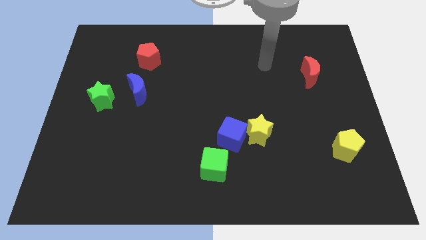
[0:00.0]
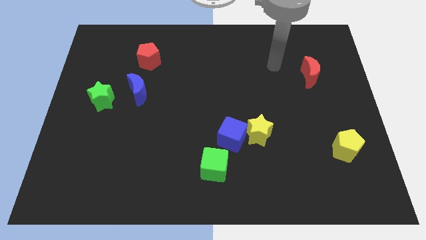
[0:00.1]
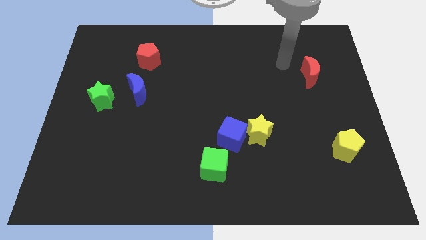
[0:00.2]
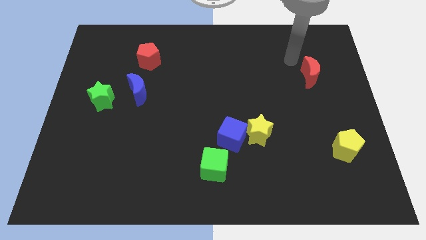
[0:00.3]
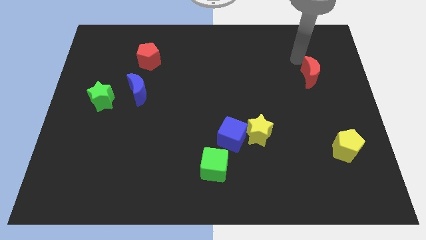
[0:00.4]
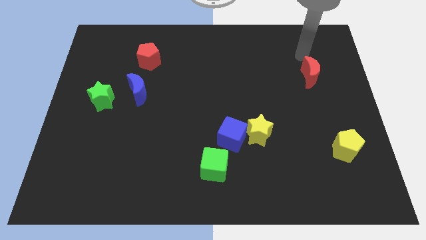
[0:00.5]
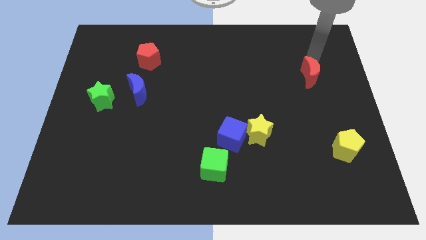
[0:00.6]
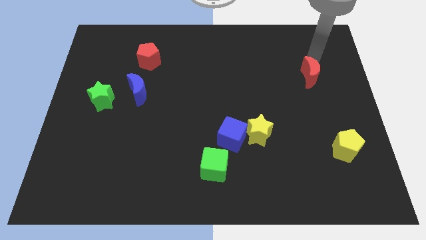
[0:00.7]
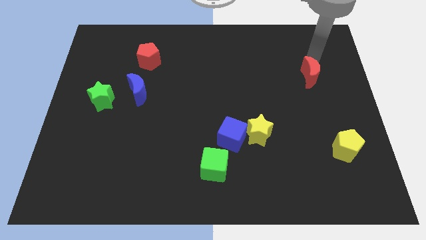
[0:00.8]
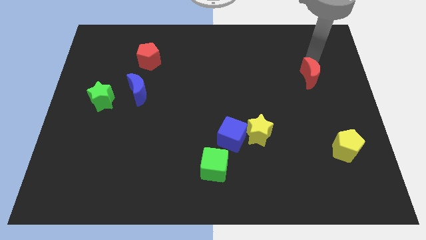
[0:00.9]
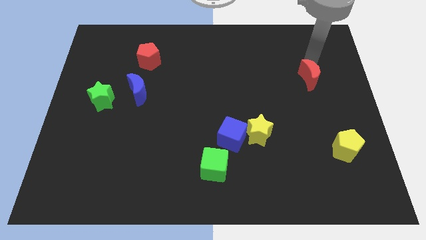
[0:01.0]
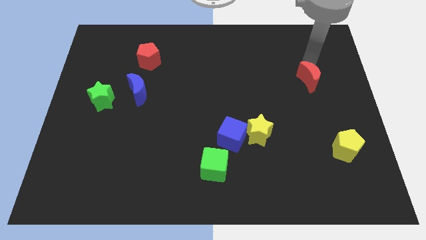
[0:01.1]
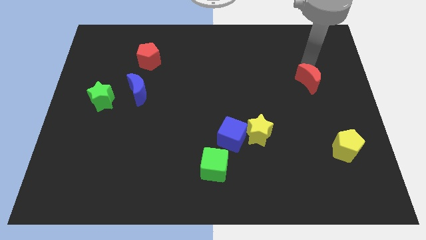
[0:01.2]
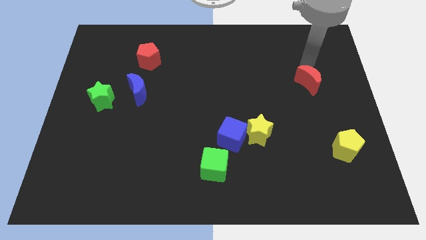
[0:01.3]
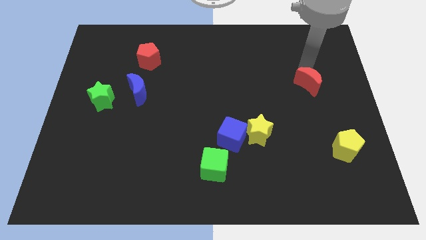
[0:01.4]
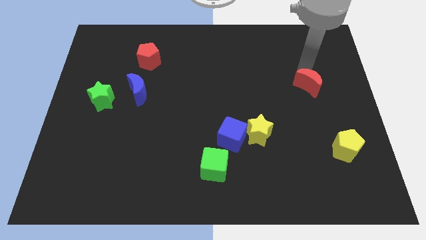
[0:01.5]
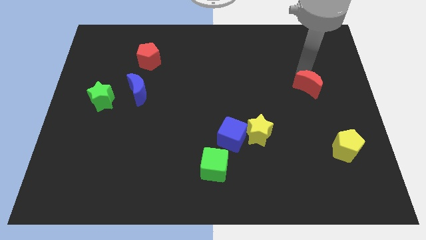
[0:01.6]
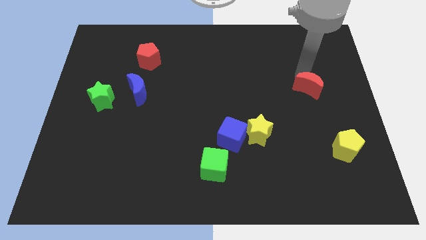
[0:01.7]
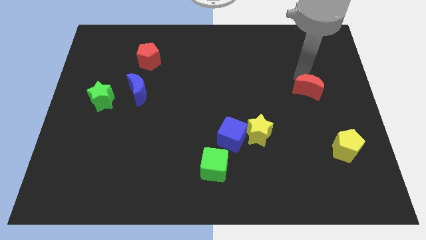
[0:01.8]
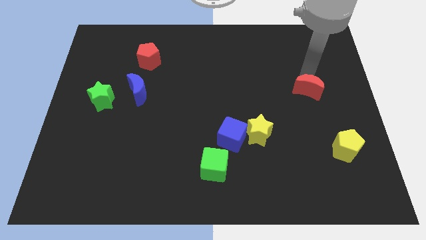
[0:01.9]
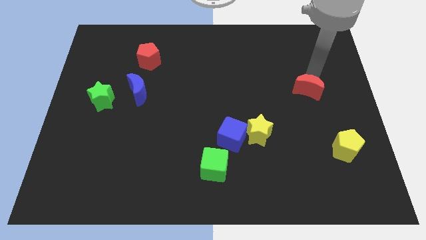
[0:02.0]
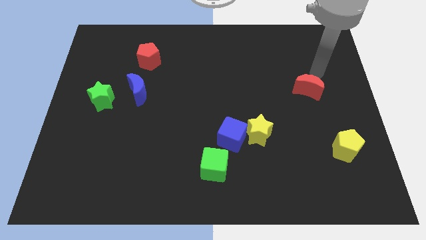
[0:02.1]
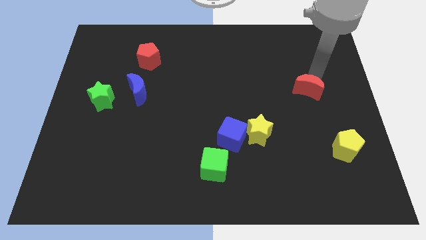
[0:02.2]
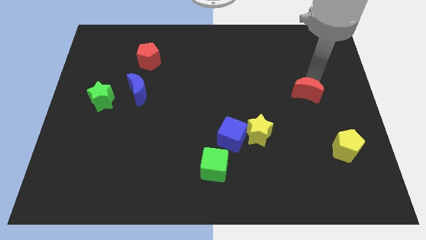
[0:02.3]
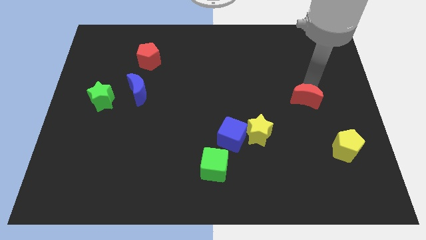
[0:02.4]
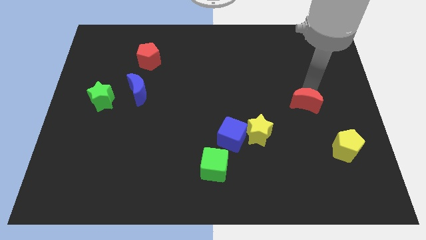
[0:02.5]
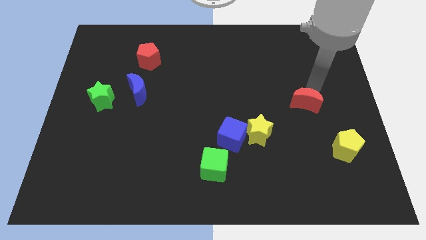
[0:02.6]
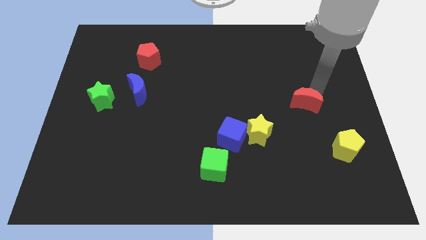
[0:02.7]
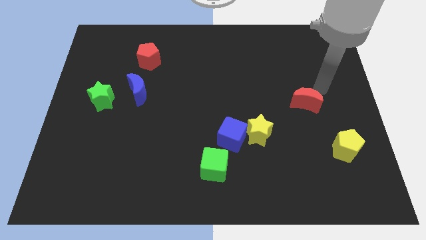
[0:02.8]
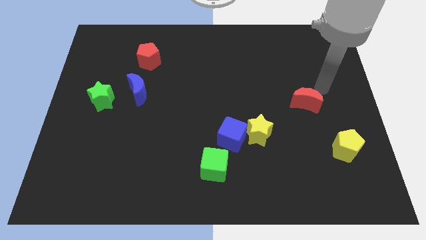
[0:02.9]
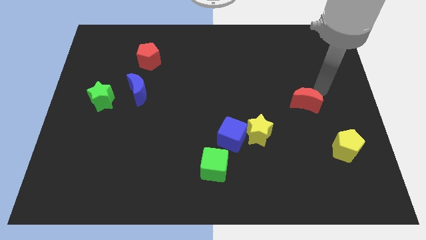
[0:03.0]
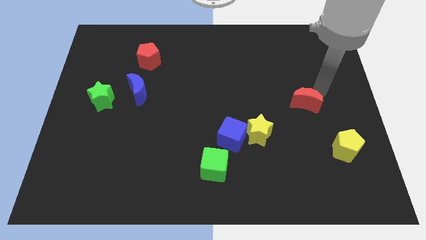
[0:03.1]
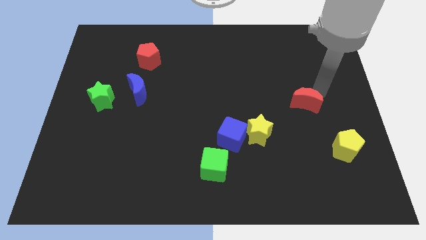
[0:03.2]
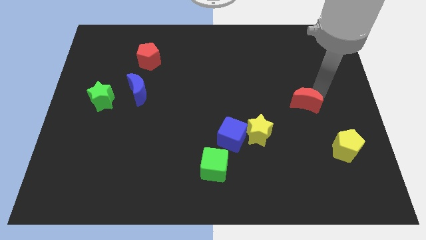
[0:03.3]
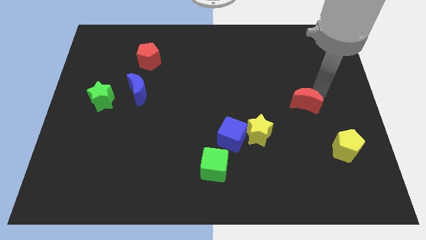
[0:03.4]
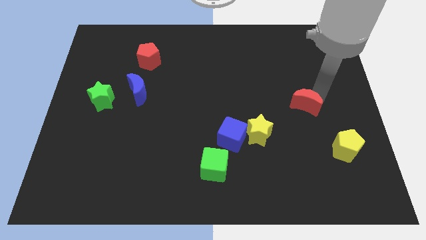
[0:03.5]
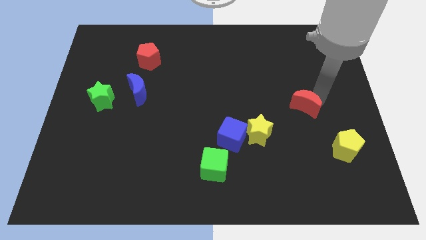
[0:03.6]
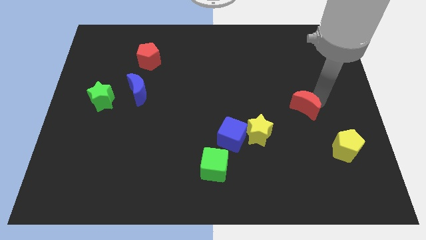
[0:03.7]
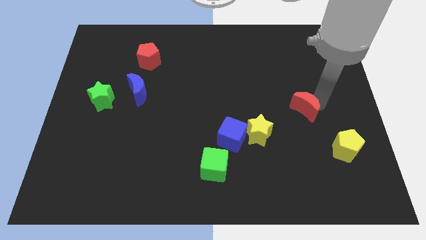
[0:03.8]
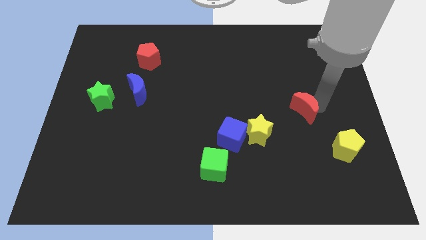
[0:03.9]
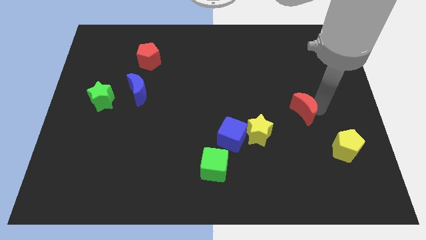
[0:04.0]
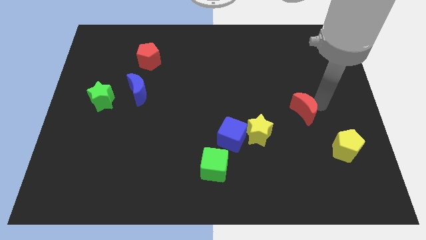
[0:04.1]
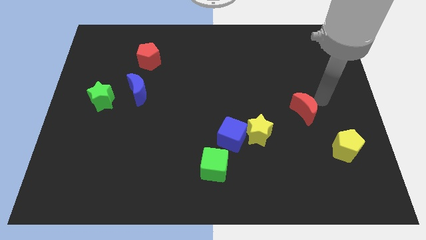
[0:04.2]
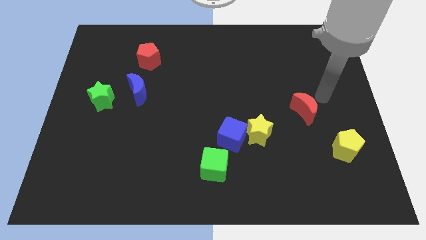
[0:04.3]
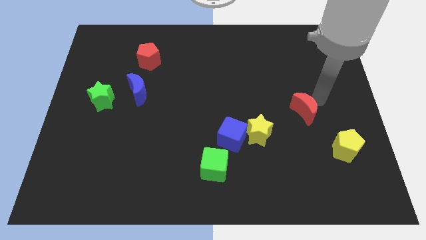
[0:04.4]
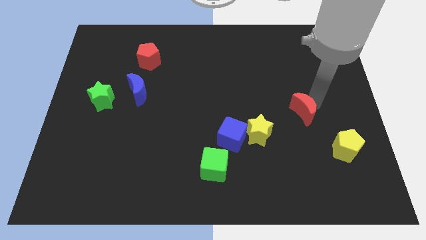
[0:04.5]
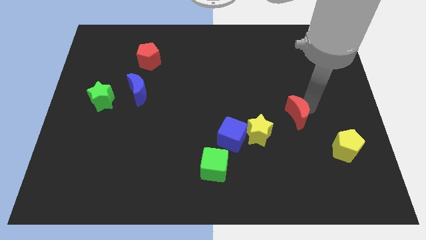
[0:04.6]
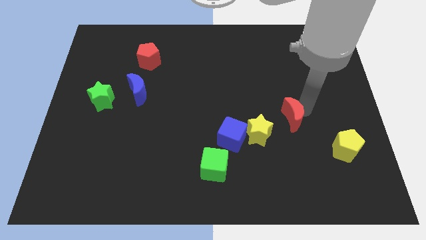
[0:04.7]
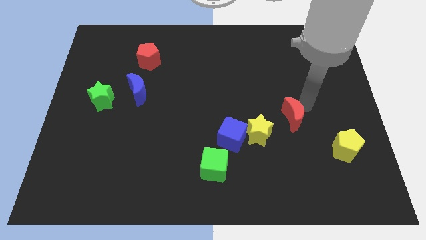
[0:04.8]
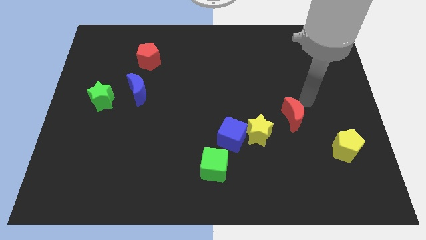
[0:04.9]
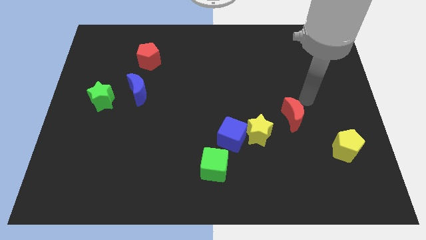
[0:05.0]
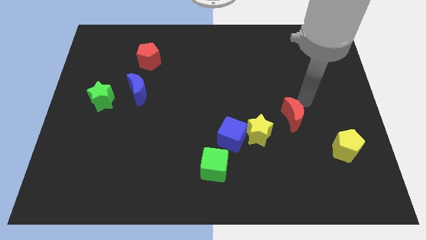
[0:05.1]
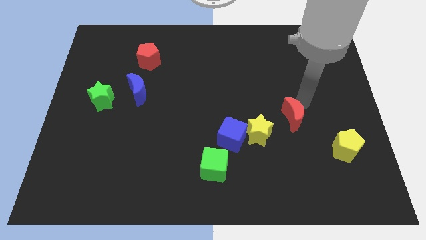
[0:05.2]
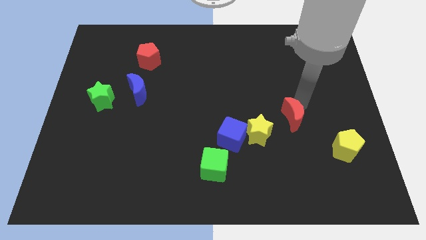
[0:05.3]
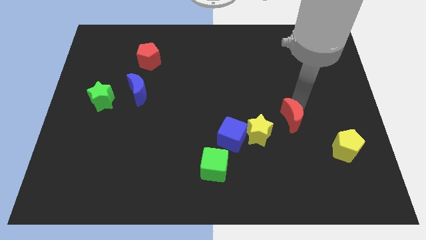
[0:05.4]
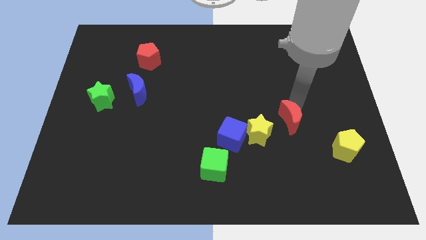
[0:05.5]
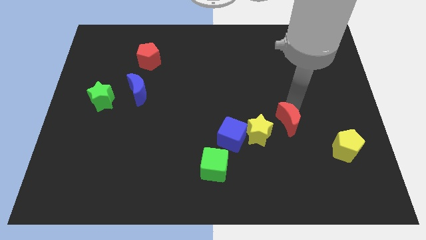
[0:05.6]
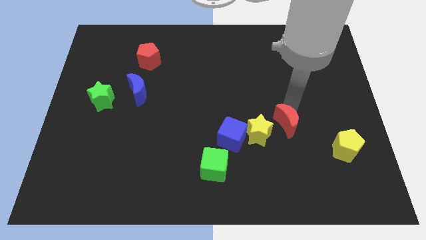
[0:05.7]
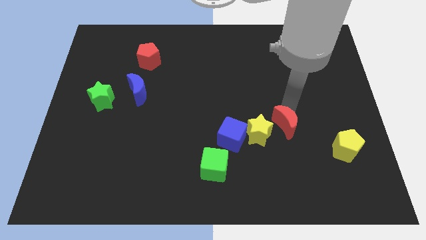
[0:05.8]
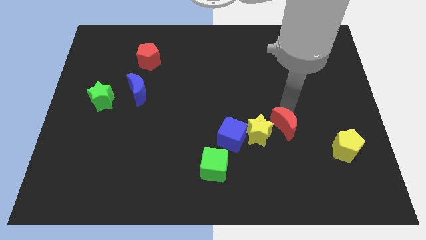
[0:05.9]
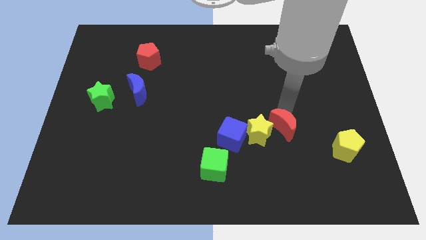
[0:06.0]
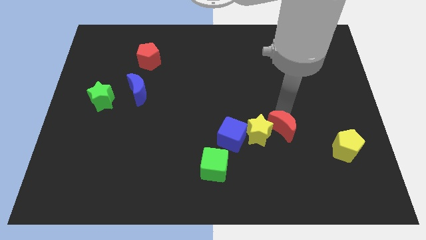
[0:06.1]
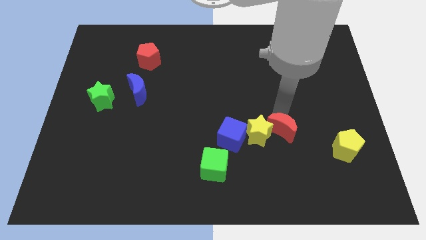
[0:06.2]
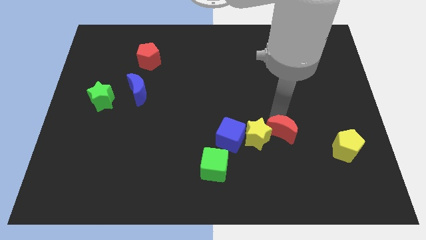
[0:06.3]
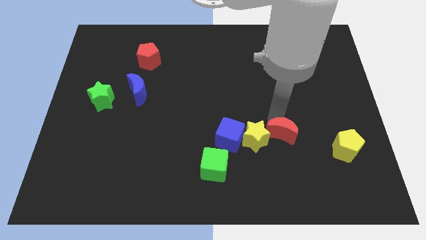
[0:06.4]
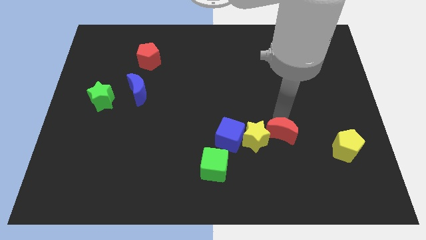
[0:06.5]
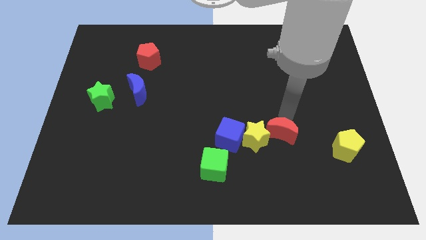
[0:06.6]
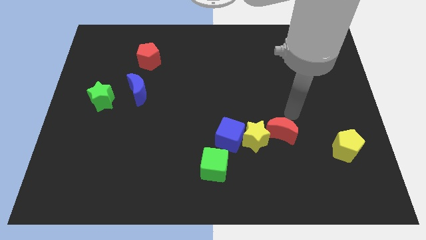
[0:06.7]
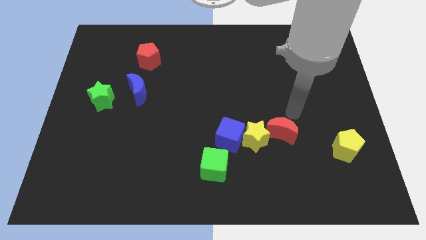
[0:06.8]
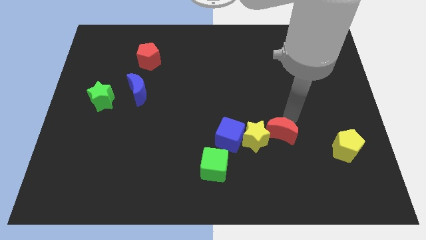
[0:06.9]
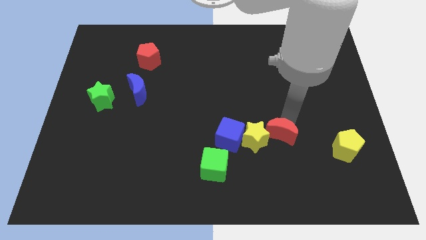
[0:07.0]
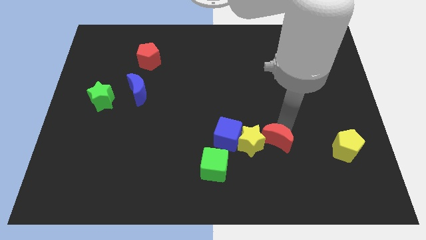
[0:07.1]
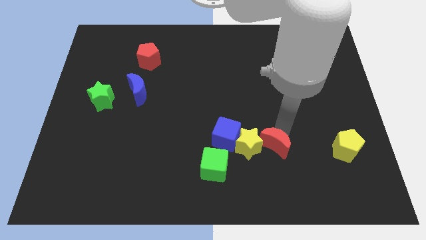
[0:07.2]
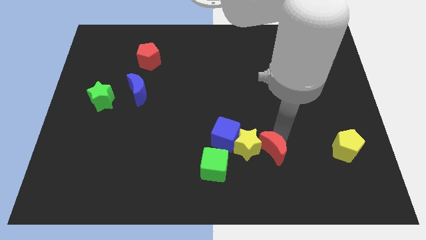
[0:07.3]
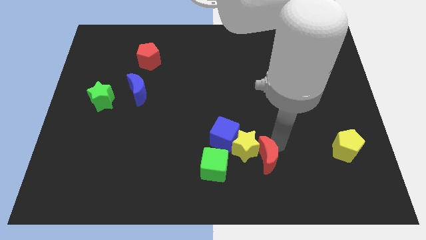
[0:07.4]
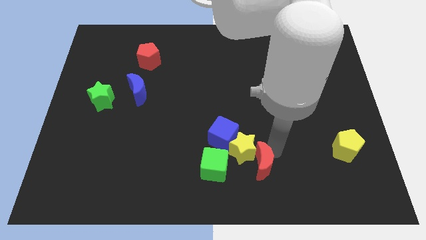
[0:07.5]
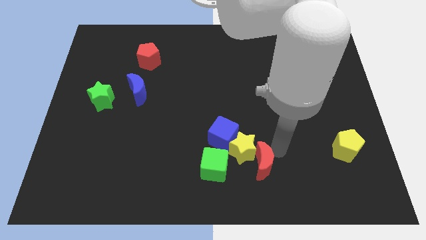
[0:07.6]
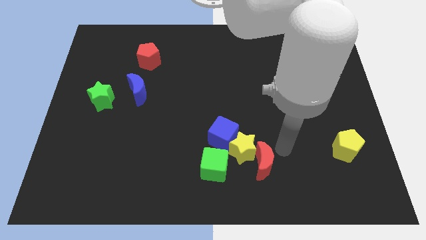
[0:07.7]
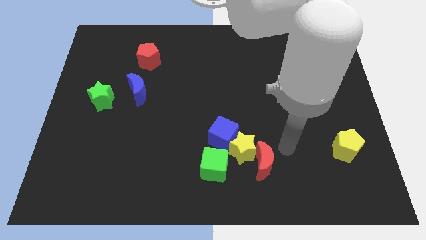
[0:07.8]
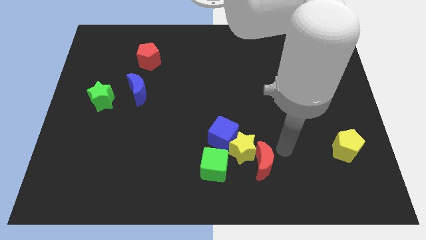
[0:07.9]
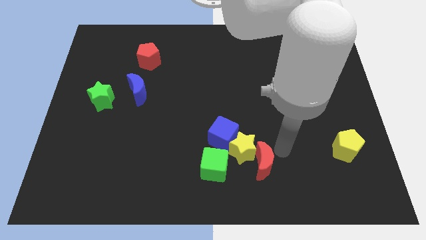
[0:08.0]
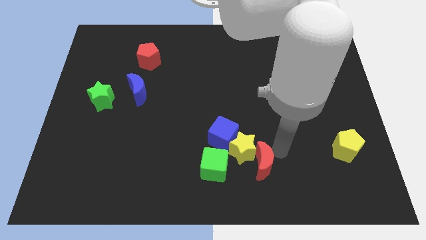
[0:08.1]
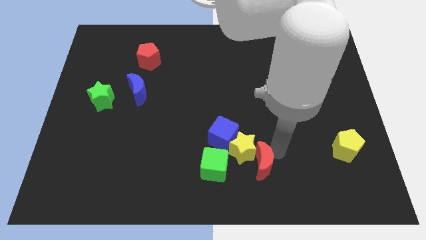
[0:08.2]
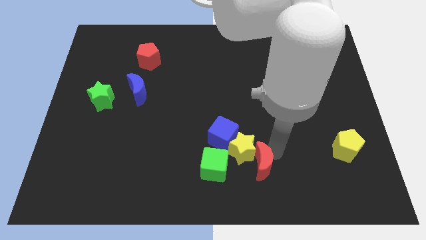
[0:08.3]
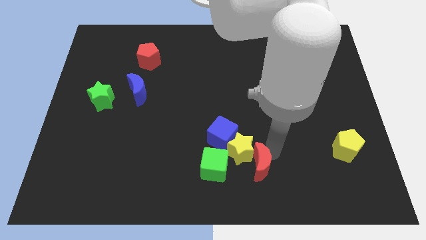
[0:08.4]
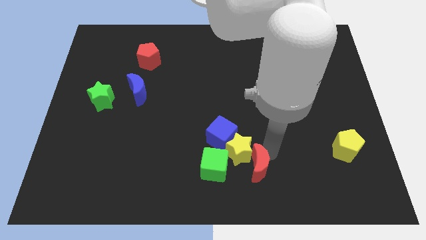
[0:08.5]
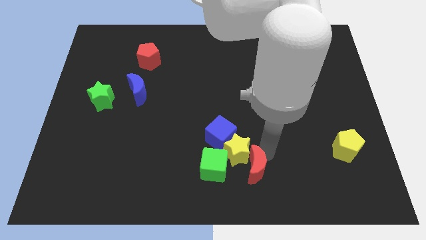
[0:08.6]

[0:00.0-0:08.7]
push the red moon to the bottom
